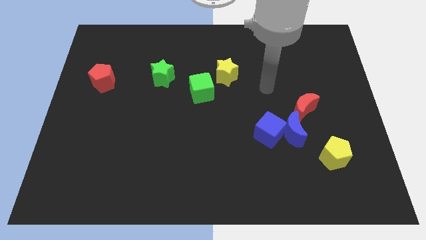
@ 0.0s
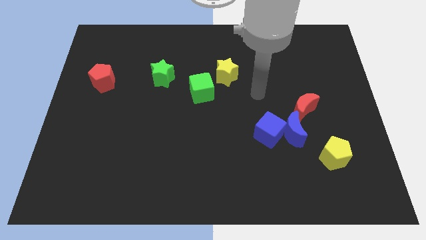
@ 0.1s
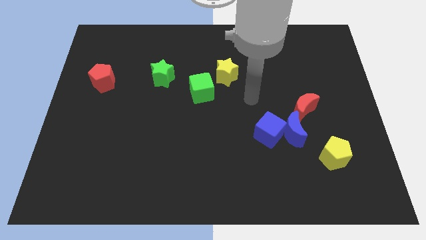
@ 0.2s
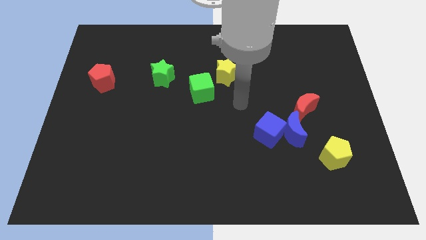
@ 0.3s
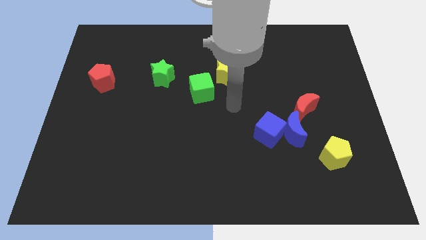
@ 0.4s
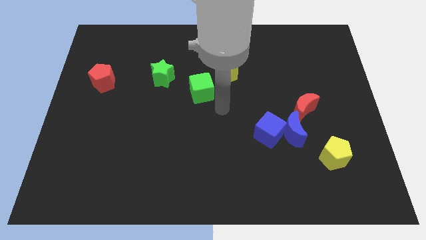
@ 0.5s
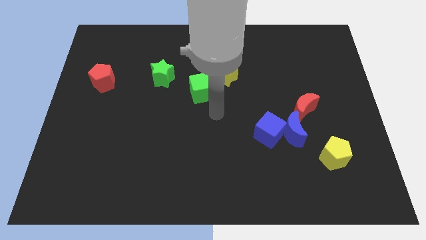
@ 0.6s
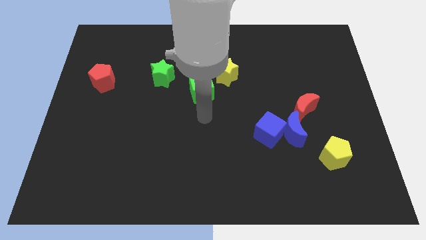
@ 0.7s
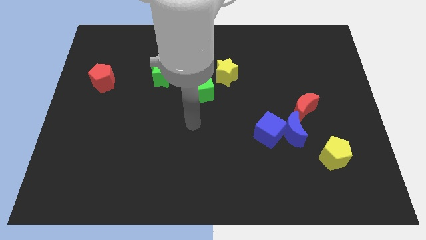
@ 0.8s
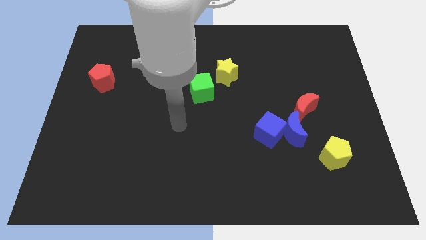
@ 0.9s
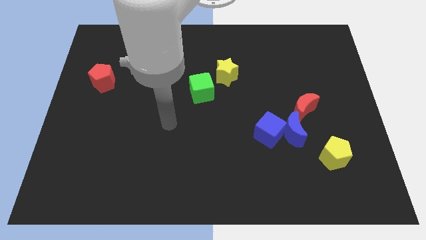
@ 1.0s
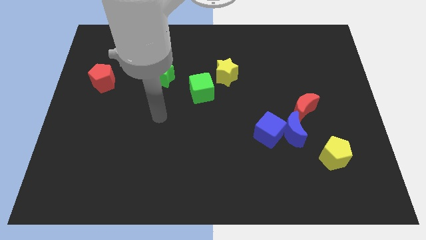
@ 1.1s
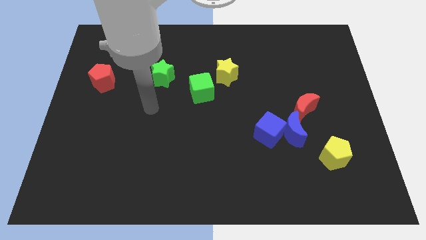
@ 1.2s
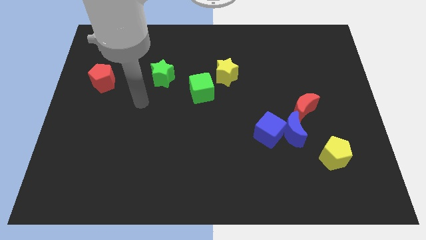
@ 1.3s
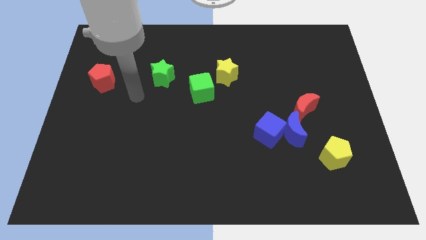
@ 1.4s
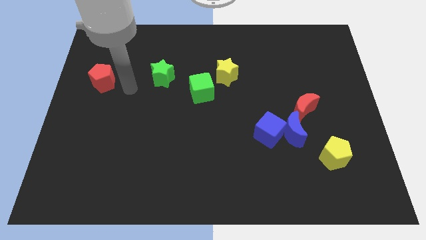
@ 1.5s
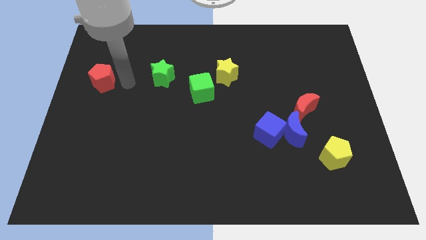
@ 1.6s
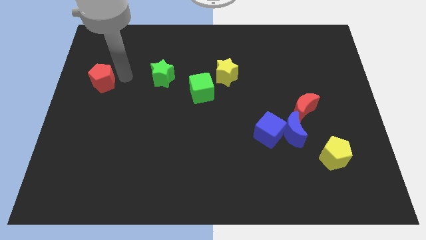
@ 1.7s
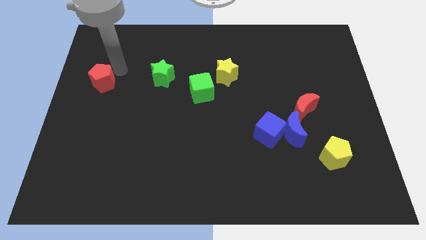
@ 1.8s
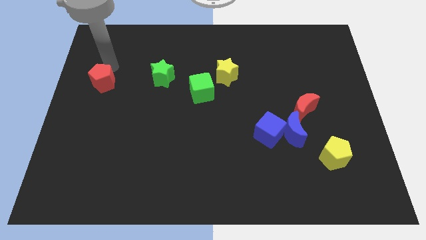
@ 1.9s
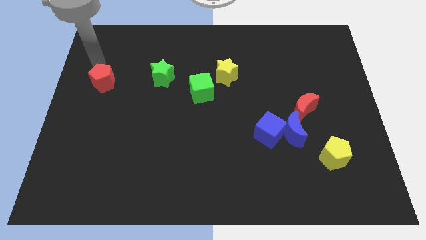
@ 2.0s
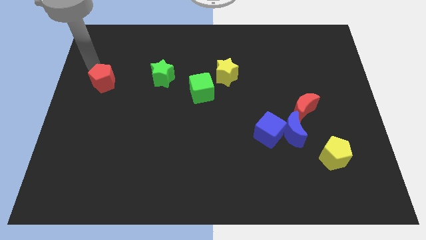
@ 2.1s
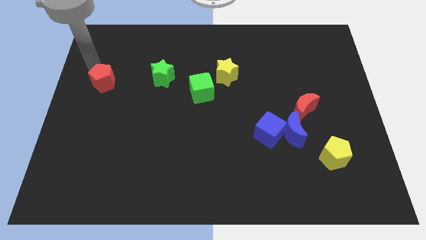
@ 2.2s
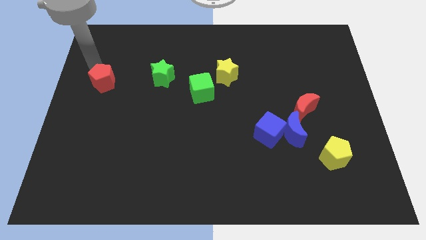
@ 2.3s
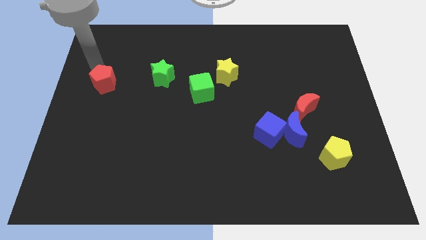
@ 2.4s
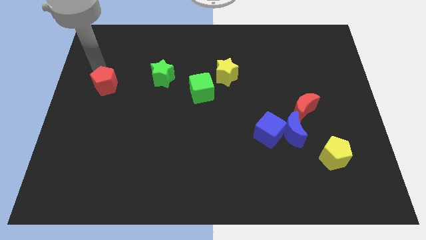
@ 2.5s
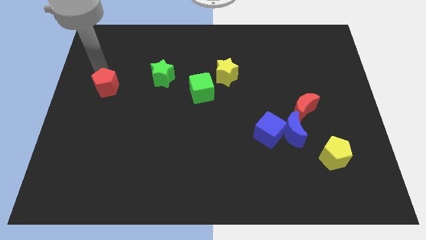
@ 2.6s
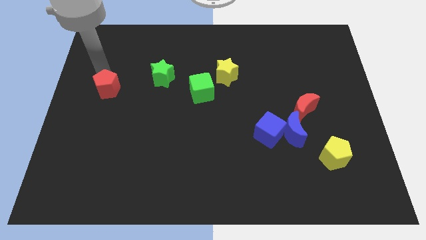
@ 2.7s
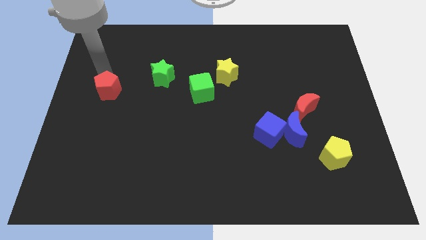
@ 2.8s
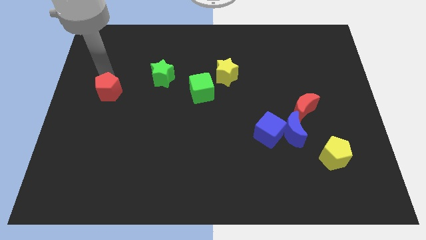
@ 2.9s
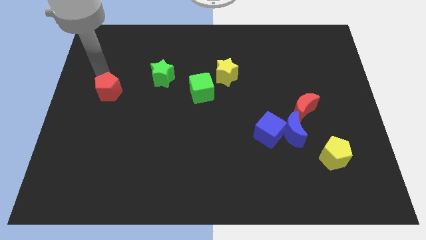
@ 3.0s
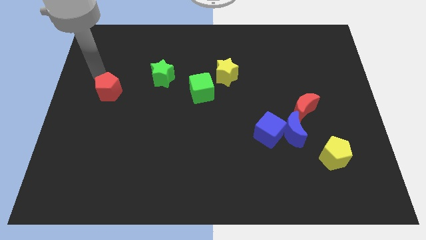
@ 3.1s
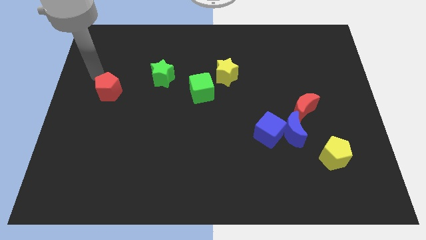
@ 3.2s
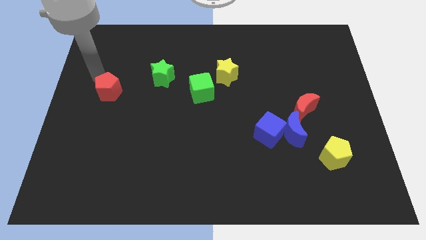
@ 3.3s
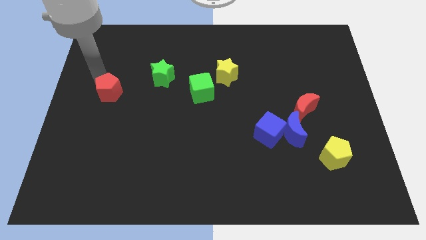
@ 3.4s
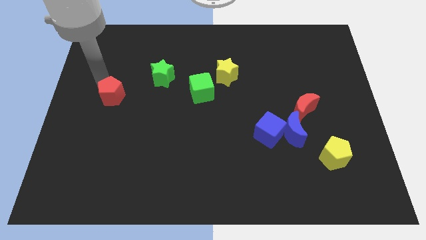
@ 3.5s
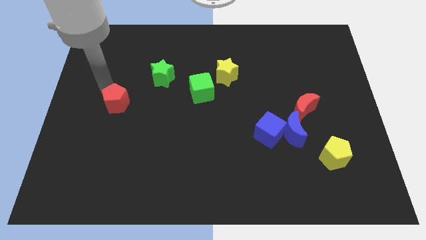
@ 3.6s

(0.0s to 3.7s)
slightly push the red pentagon downwards and then right

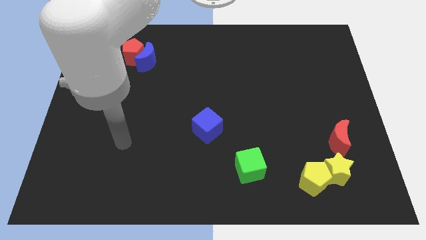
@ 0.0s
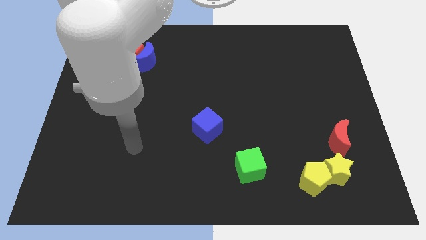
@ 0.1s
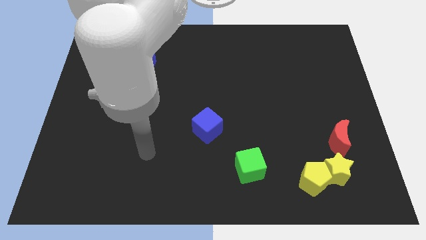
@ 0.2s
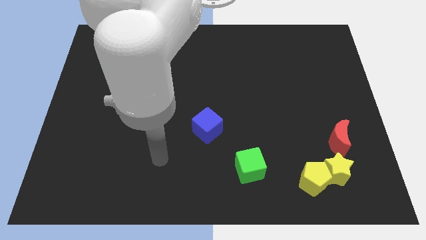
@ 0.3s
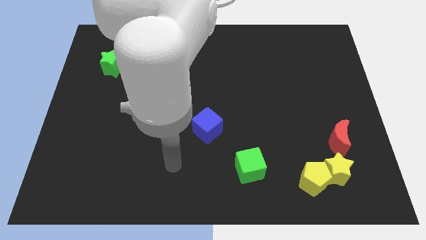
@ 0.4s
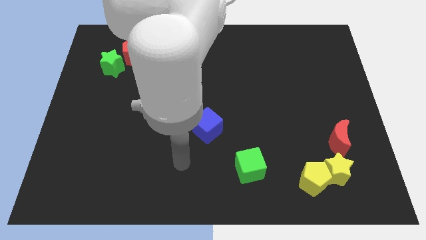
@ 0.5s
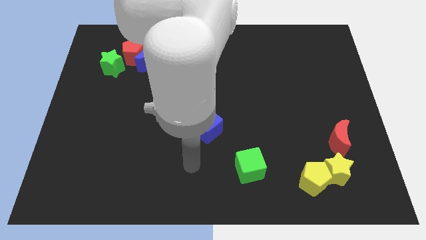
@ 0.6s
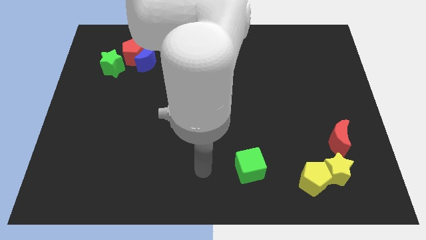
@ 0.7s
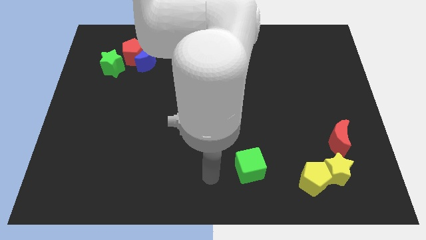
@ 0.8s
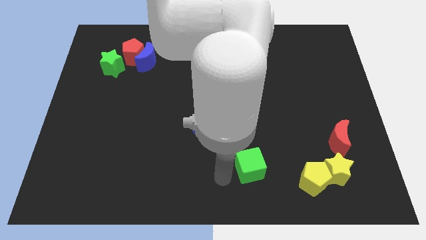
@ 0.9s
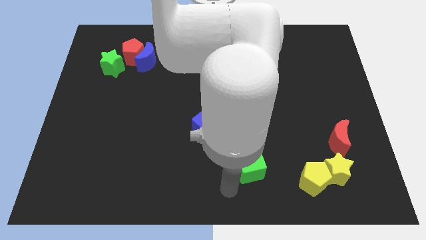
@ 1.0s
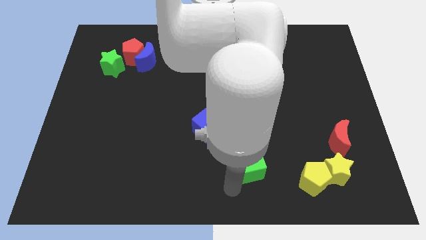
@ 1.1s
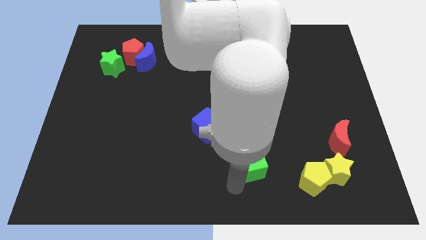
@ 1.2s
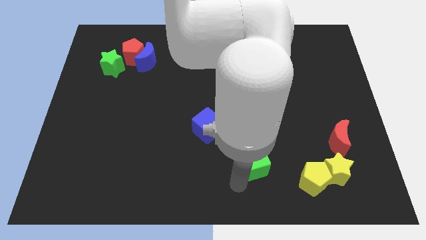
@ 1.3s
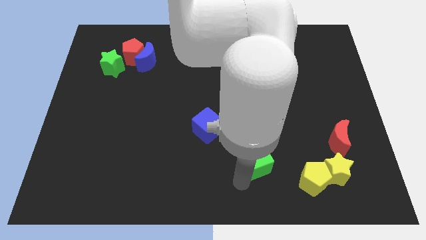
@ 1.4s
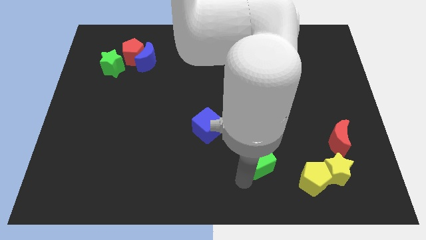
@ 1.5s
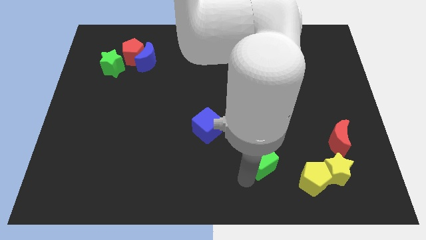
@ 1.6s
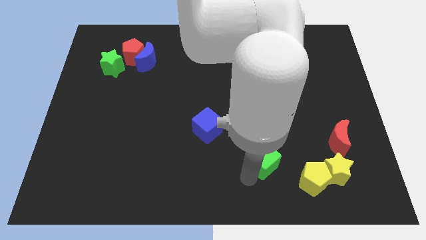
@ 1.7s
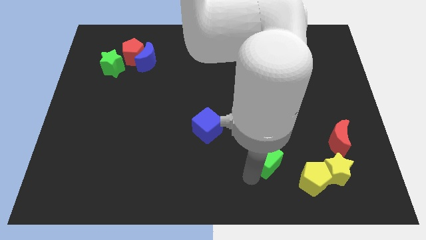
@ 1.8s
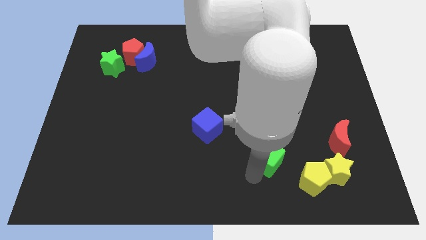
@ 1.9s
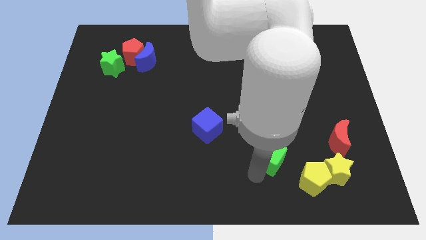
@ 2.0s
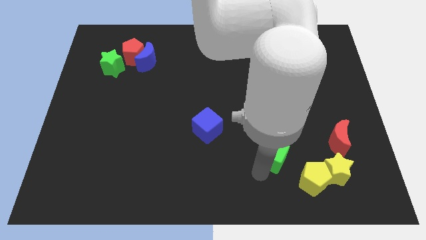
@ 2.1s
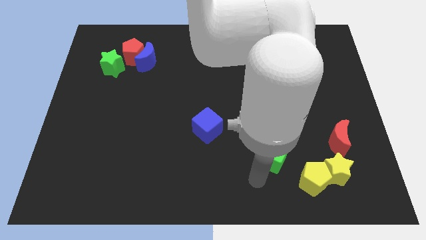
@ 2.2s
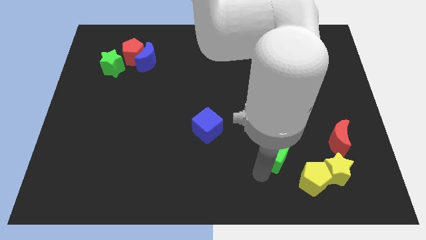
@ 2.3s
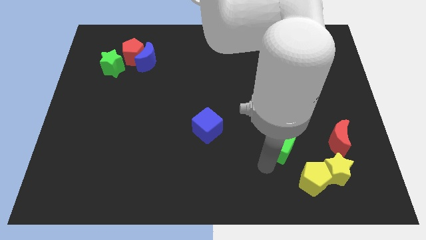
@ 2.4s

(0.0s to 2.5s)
slightly slide the green cube upwards and then to the right

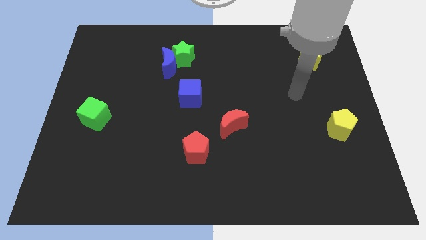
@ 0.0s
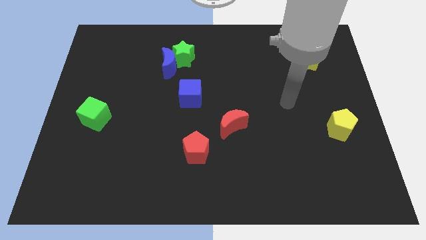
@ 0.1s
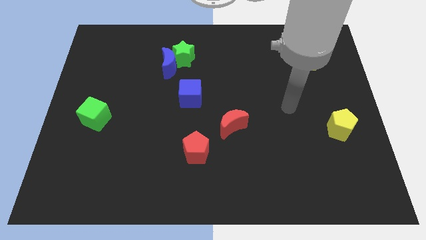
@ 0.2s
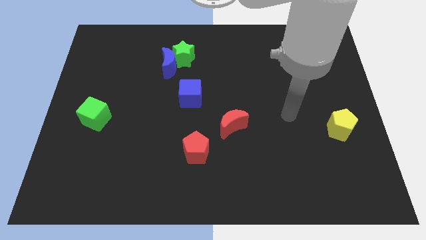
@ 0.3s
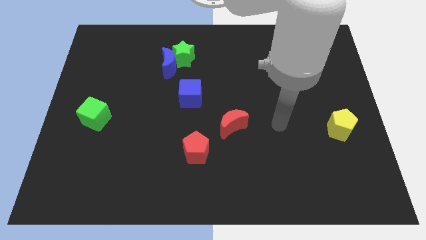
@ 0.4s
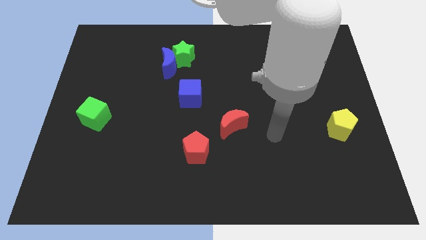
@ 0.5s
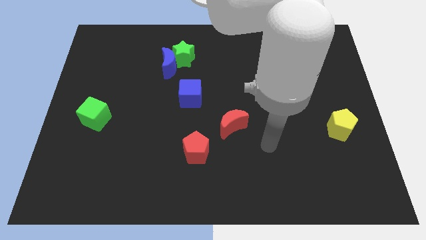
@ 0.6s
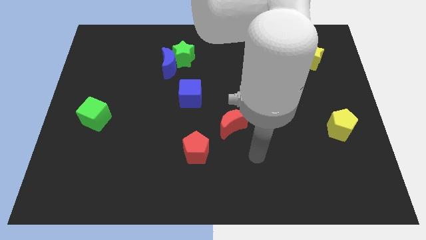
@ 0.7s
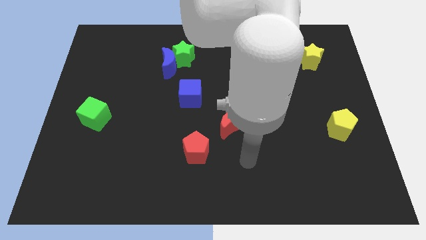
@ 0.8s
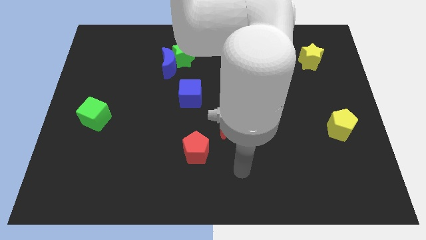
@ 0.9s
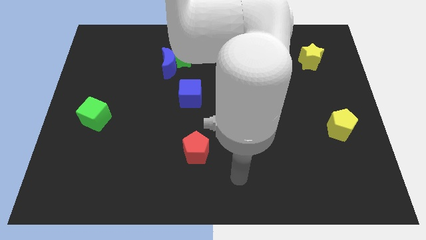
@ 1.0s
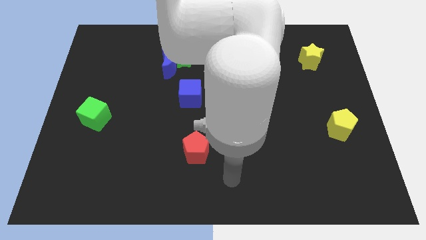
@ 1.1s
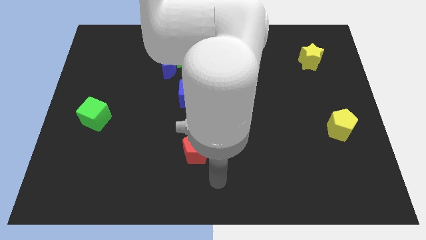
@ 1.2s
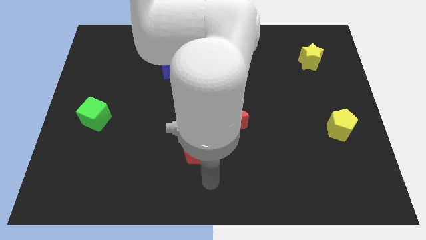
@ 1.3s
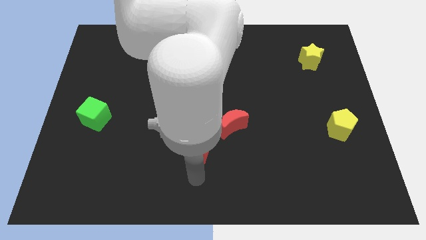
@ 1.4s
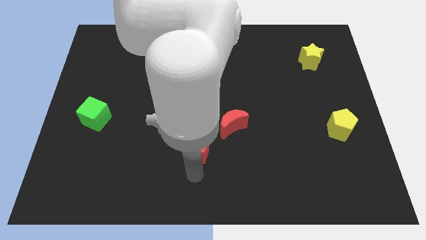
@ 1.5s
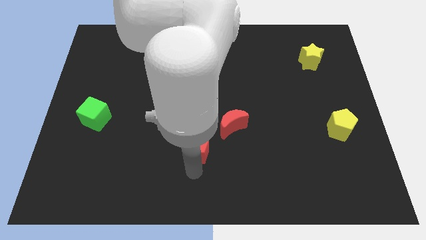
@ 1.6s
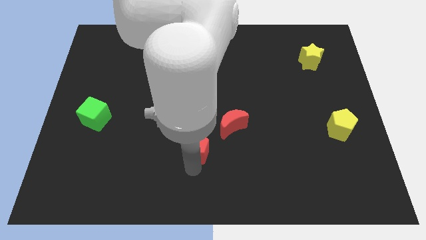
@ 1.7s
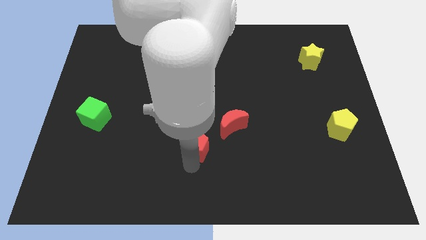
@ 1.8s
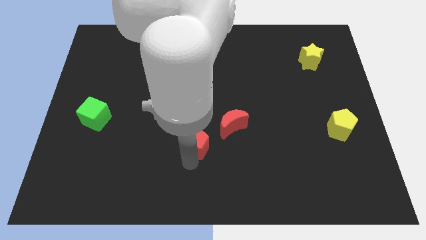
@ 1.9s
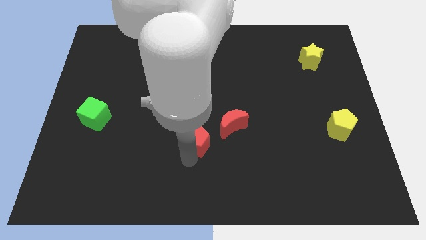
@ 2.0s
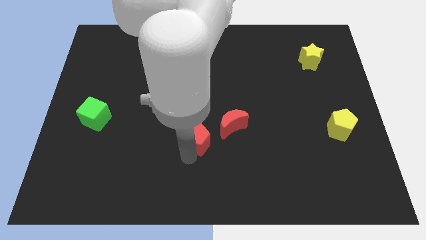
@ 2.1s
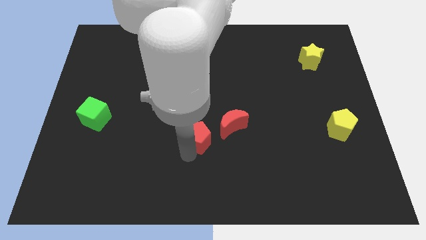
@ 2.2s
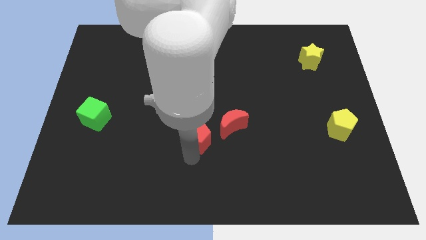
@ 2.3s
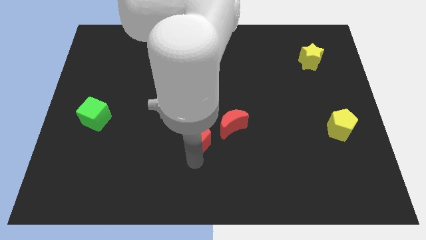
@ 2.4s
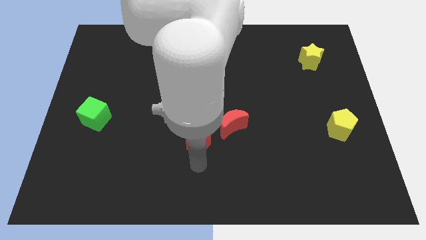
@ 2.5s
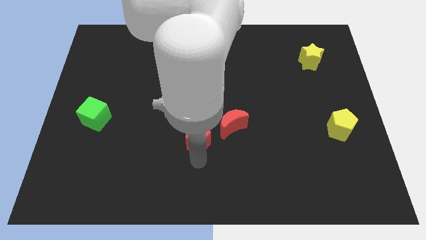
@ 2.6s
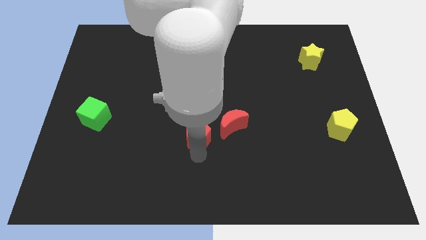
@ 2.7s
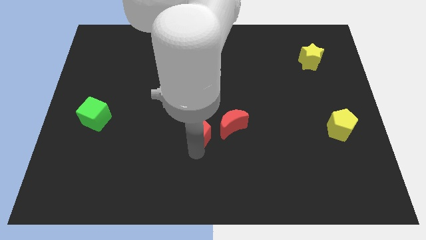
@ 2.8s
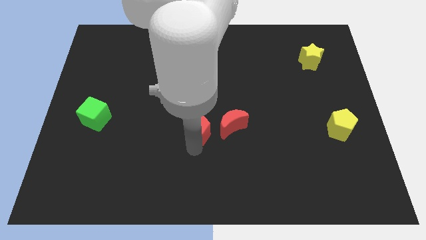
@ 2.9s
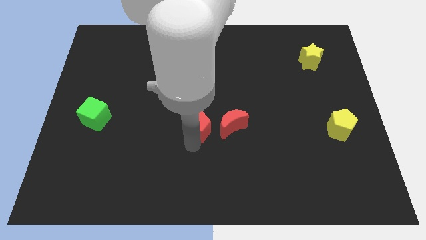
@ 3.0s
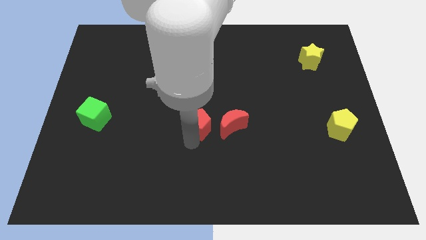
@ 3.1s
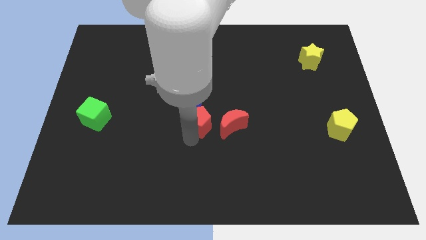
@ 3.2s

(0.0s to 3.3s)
slide the red pentagon somewhat upwards
